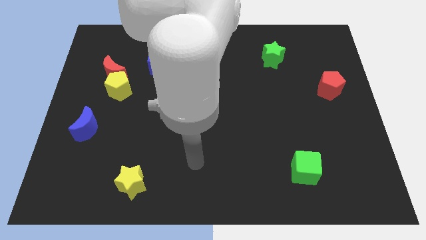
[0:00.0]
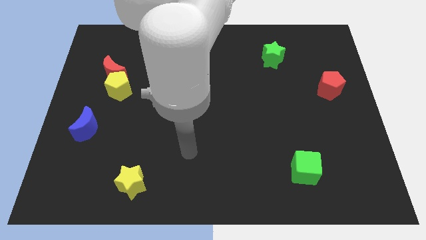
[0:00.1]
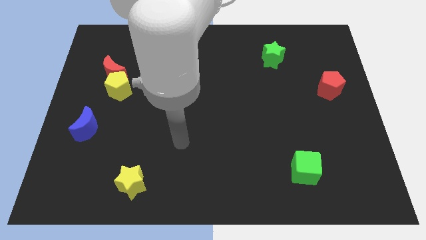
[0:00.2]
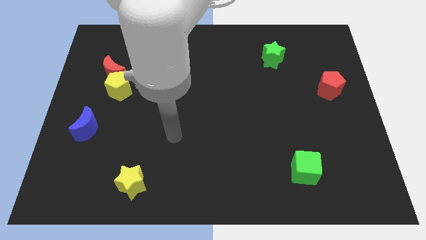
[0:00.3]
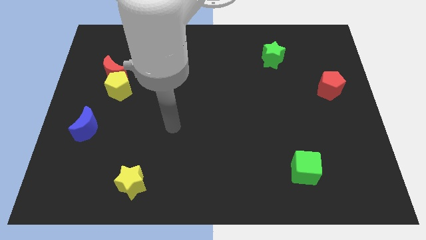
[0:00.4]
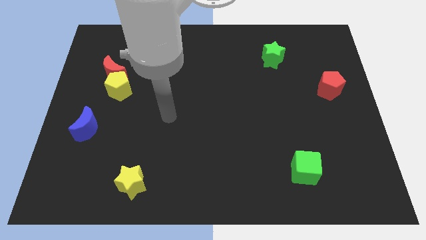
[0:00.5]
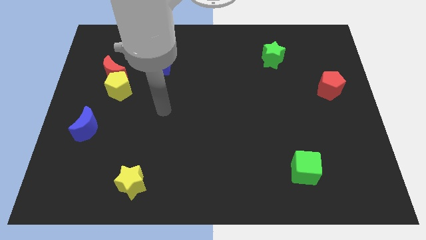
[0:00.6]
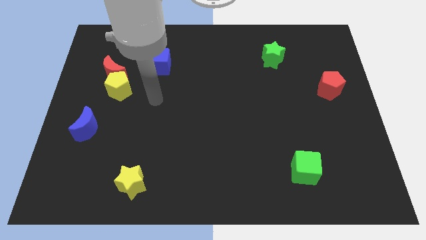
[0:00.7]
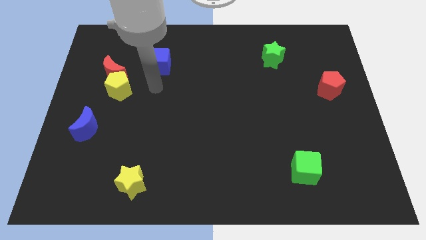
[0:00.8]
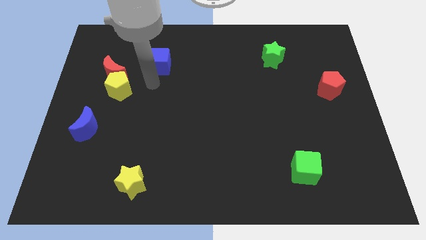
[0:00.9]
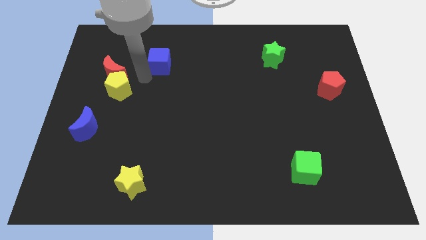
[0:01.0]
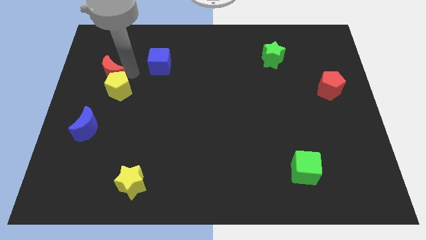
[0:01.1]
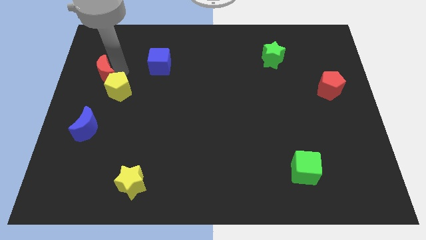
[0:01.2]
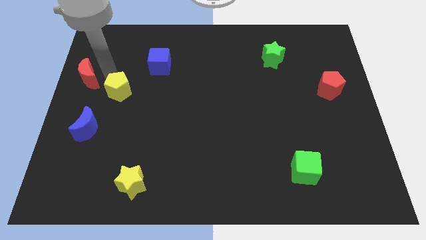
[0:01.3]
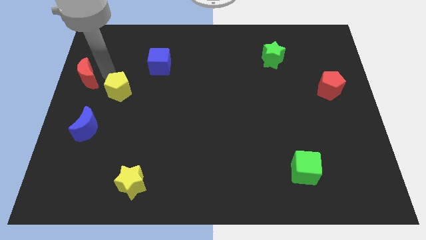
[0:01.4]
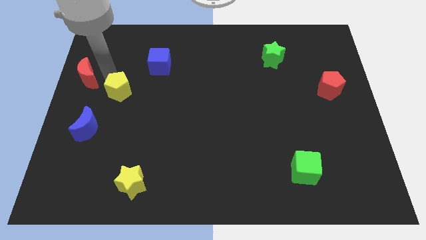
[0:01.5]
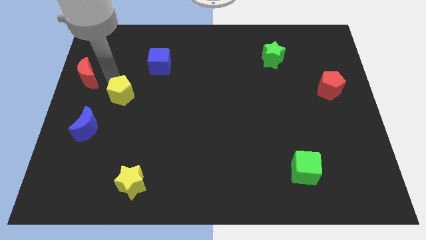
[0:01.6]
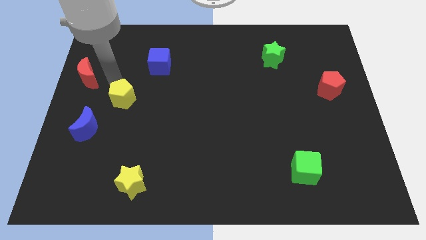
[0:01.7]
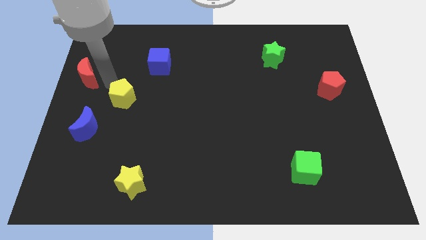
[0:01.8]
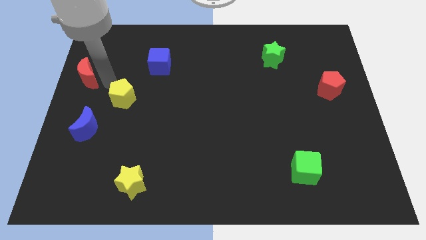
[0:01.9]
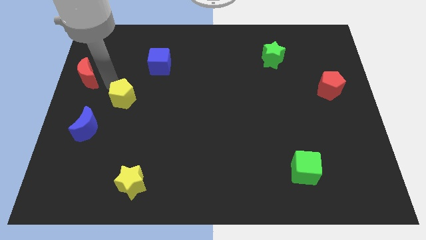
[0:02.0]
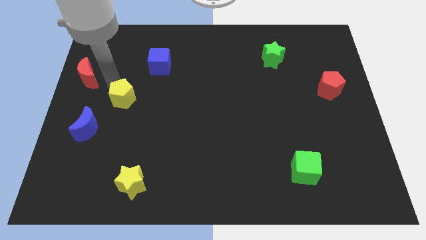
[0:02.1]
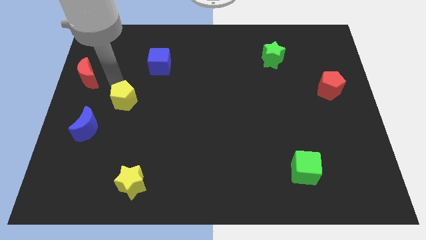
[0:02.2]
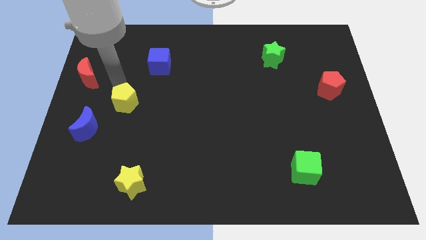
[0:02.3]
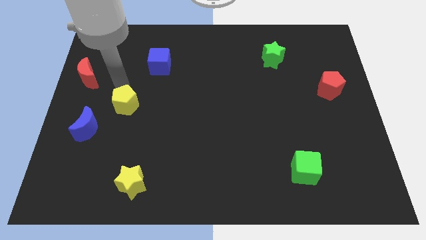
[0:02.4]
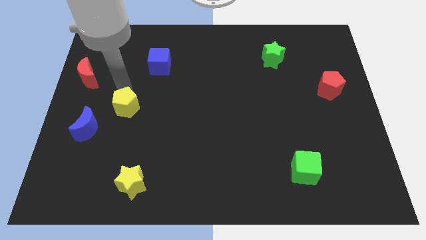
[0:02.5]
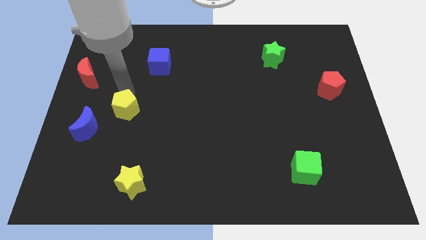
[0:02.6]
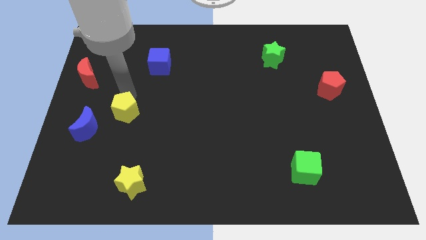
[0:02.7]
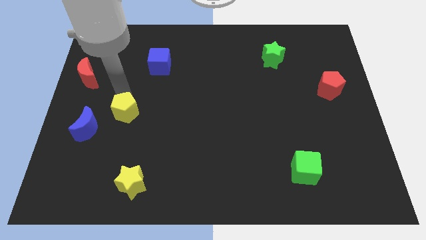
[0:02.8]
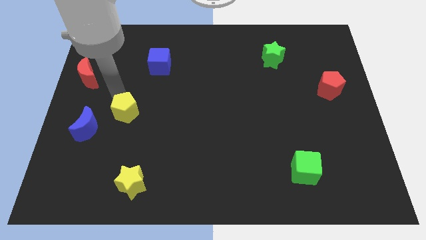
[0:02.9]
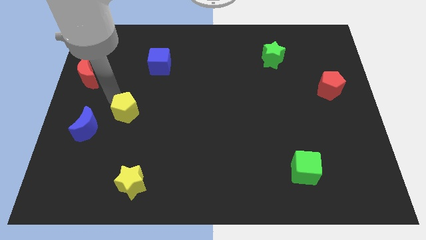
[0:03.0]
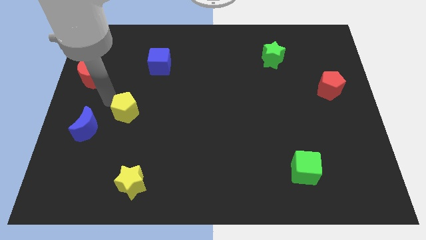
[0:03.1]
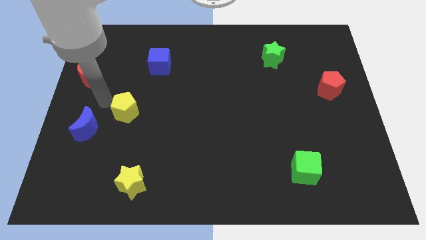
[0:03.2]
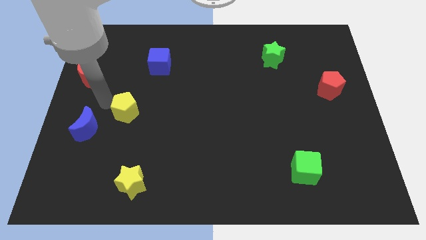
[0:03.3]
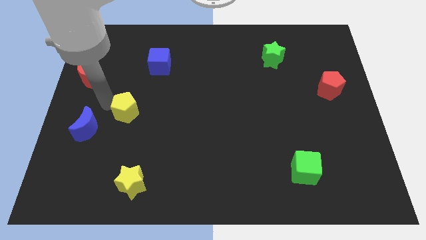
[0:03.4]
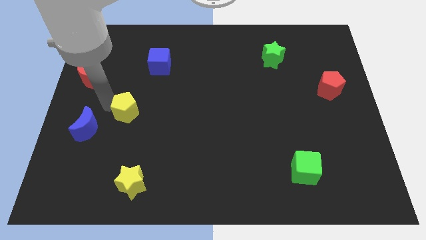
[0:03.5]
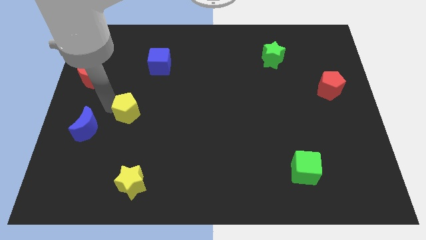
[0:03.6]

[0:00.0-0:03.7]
slightly slide the yellow pentagon diagonally down and to the right

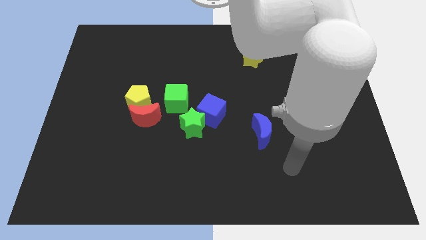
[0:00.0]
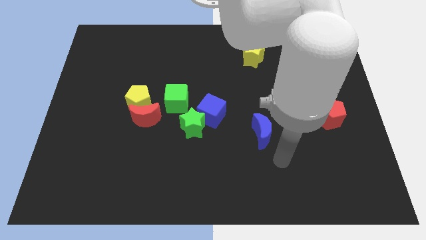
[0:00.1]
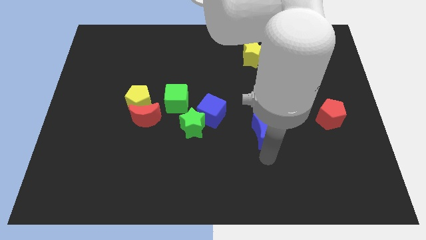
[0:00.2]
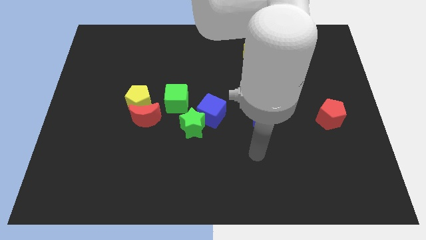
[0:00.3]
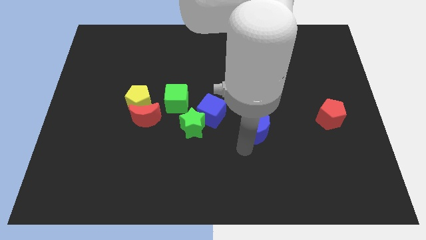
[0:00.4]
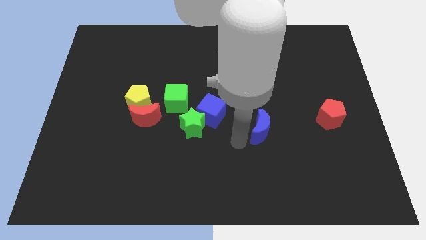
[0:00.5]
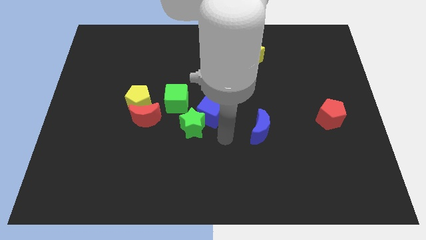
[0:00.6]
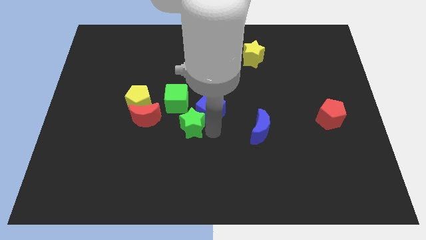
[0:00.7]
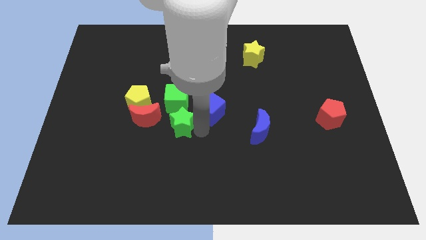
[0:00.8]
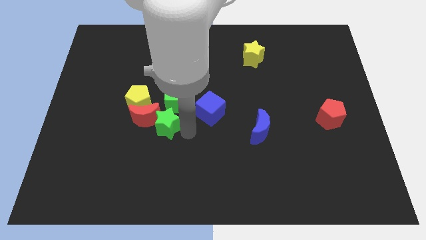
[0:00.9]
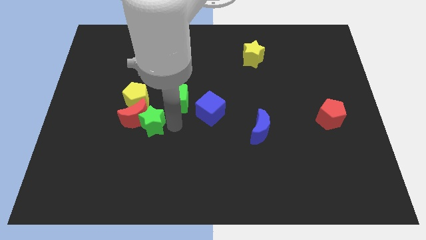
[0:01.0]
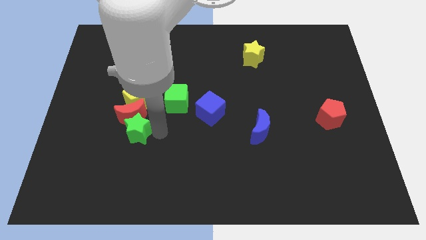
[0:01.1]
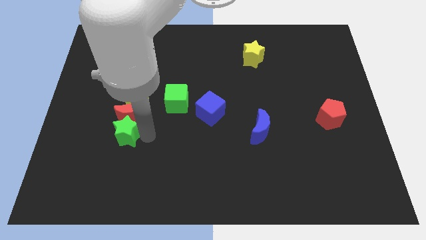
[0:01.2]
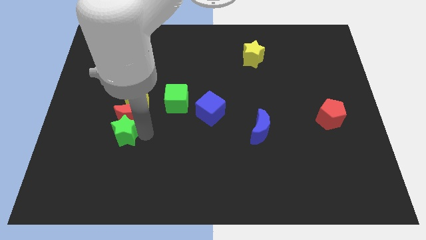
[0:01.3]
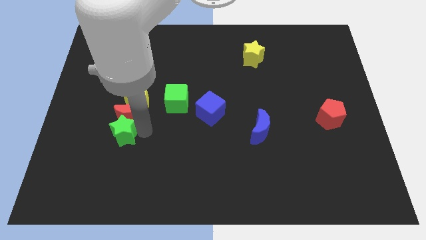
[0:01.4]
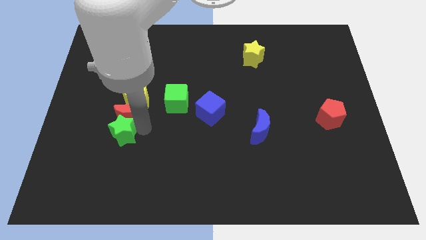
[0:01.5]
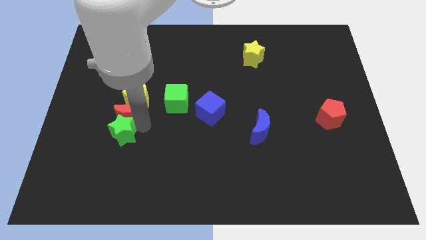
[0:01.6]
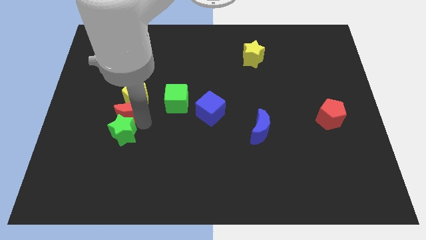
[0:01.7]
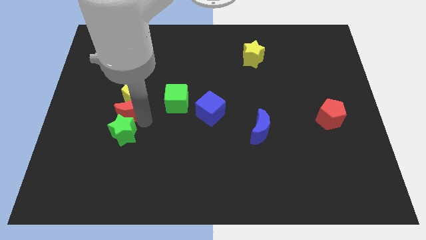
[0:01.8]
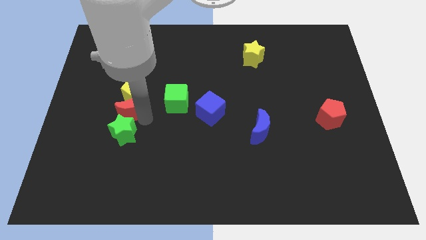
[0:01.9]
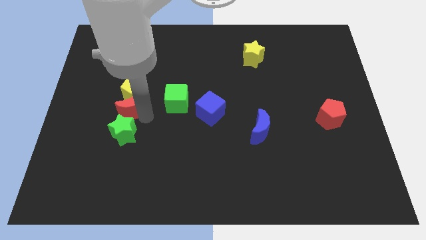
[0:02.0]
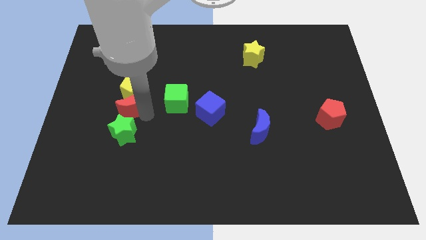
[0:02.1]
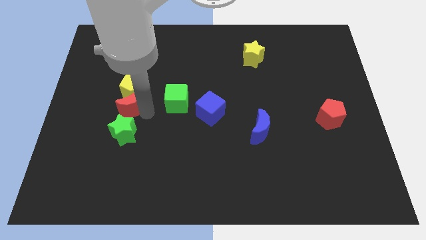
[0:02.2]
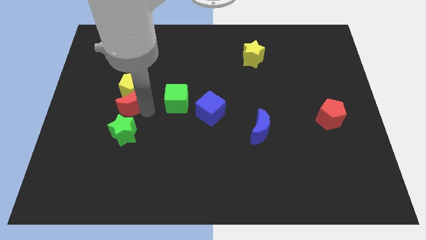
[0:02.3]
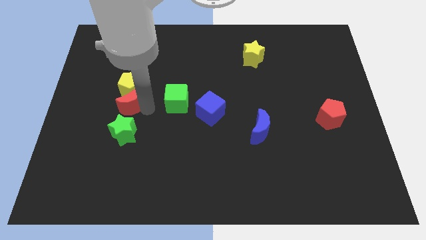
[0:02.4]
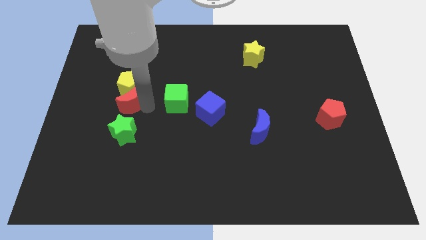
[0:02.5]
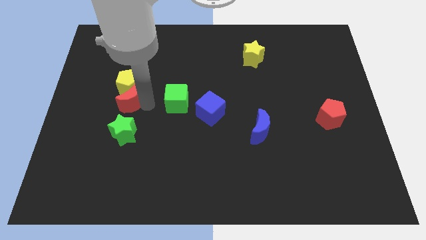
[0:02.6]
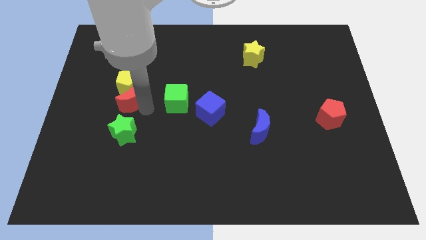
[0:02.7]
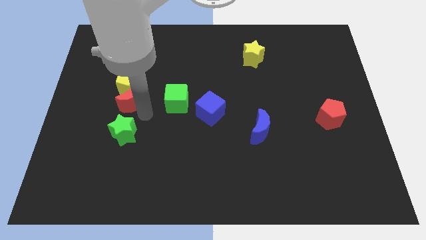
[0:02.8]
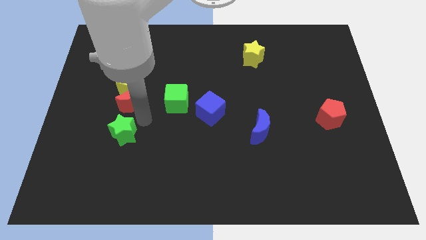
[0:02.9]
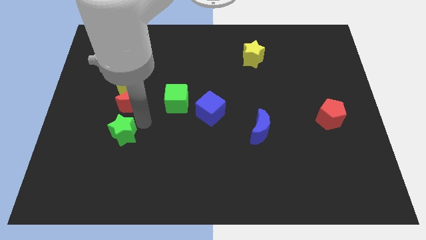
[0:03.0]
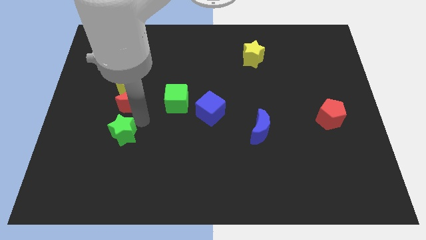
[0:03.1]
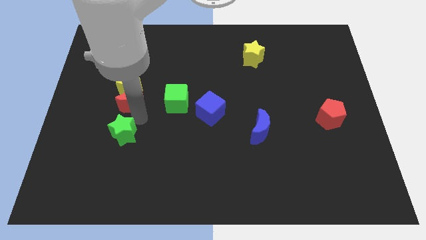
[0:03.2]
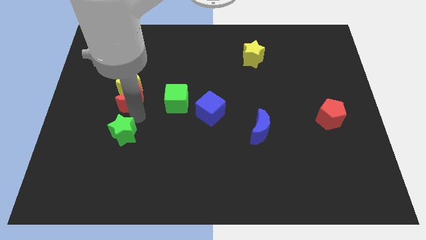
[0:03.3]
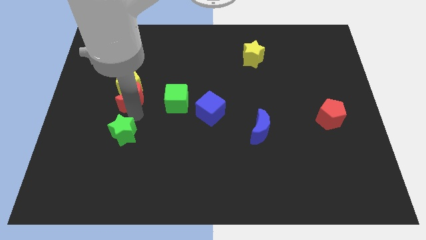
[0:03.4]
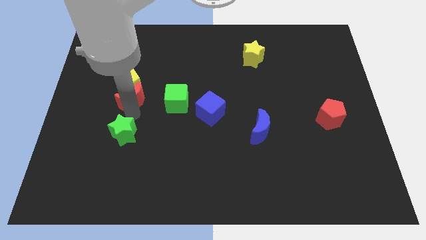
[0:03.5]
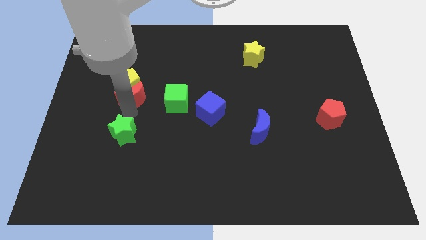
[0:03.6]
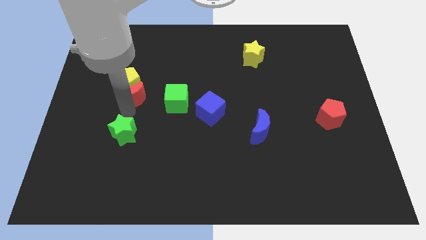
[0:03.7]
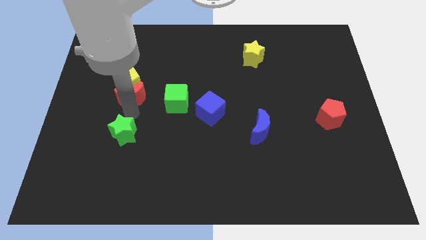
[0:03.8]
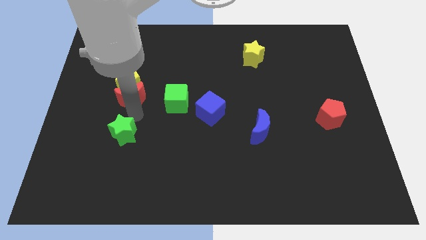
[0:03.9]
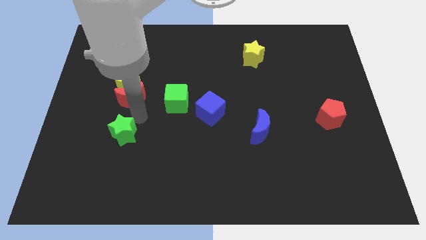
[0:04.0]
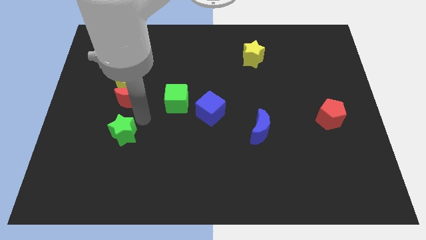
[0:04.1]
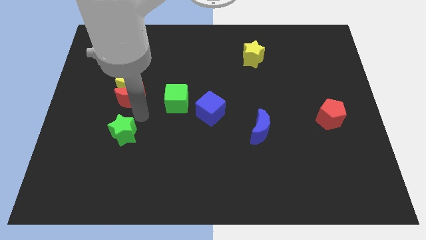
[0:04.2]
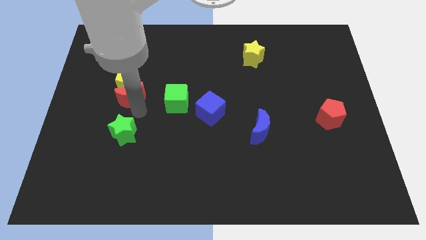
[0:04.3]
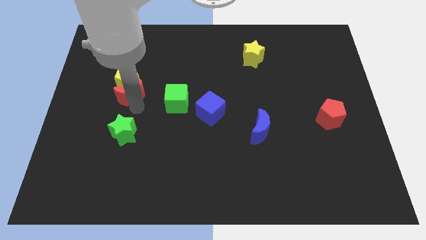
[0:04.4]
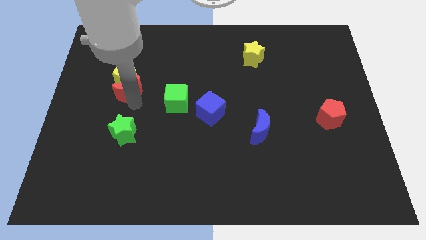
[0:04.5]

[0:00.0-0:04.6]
move the red moon upwards a little
